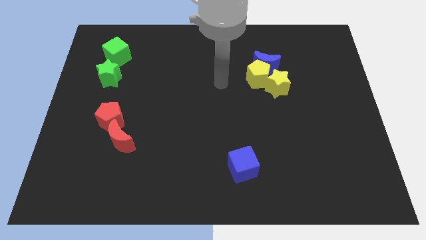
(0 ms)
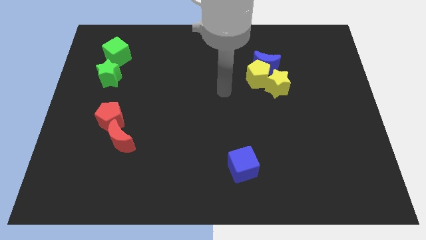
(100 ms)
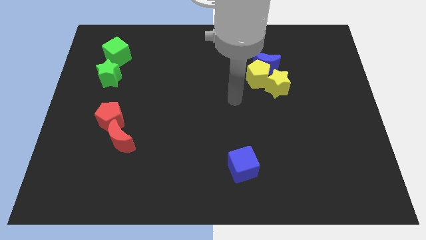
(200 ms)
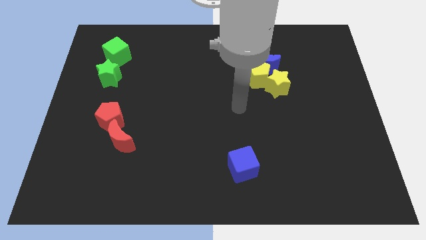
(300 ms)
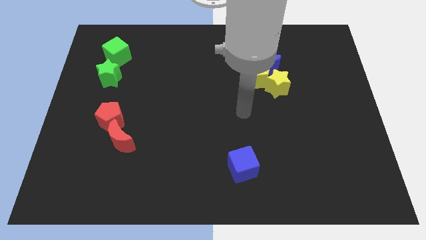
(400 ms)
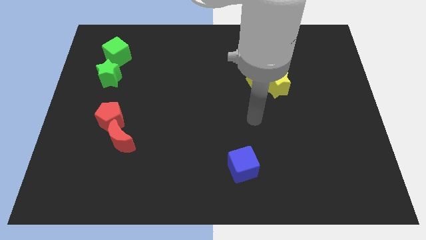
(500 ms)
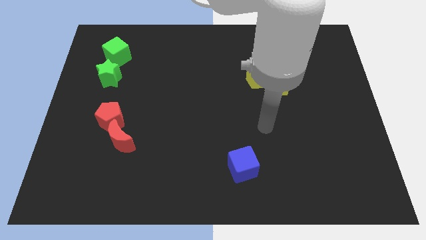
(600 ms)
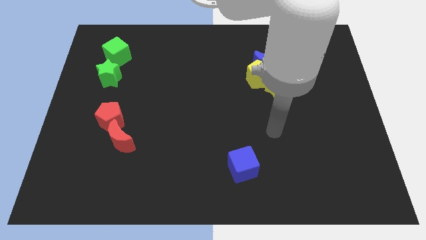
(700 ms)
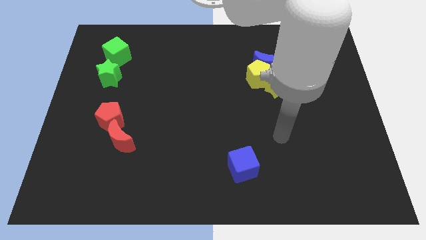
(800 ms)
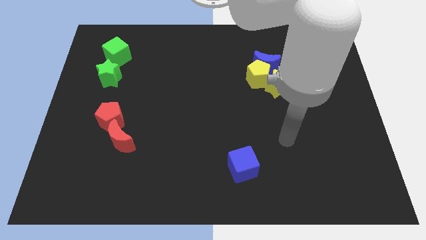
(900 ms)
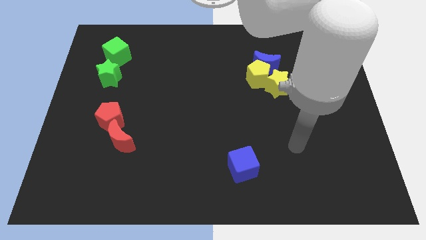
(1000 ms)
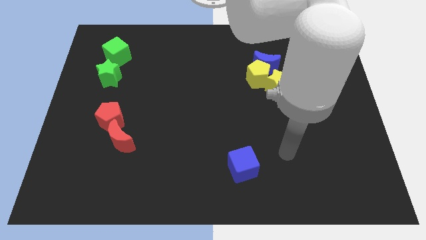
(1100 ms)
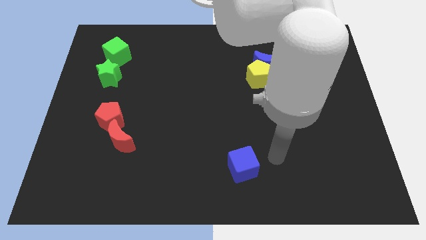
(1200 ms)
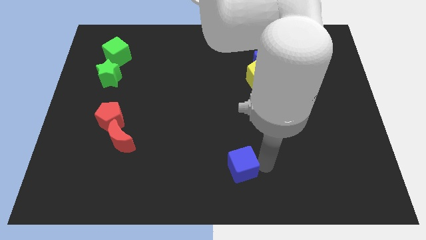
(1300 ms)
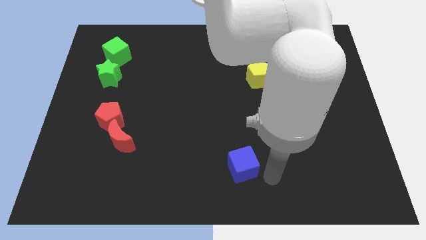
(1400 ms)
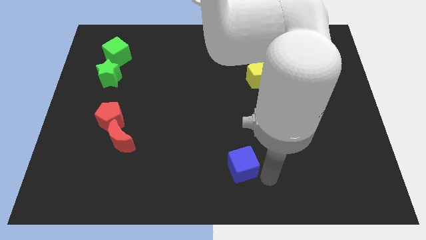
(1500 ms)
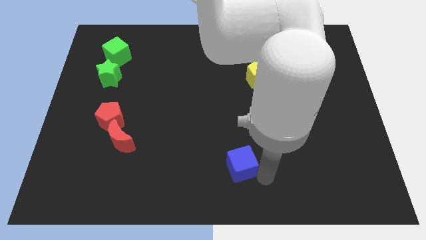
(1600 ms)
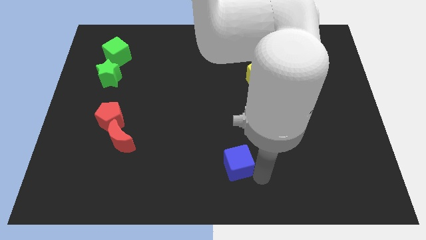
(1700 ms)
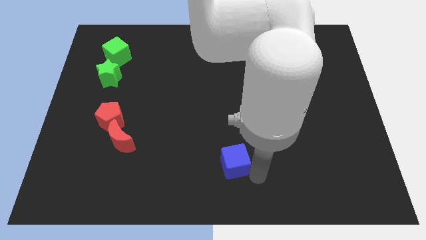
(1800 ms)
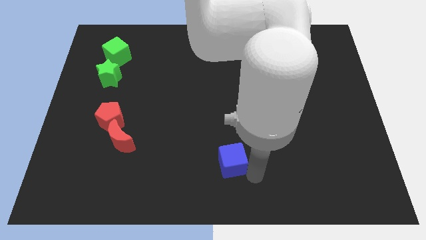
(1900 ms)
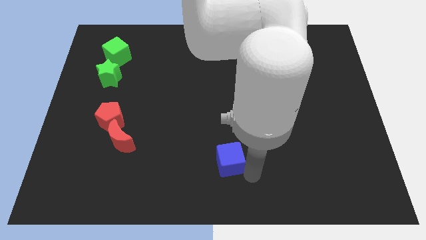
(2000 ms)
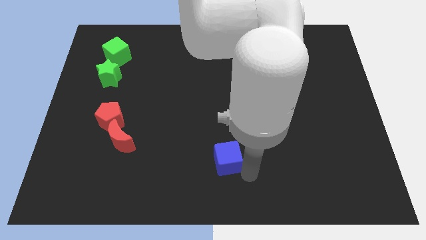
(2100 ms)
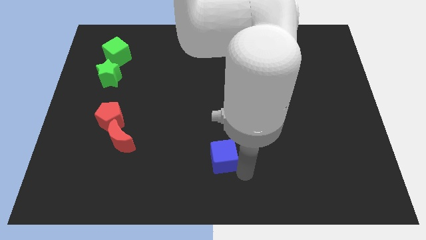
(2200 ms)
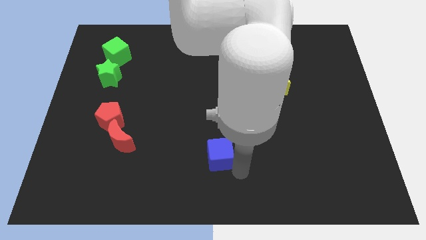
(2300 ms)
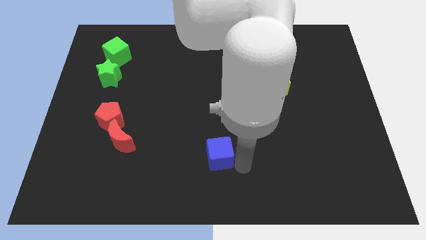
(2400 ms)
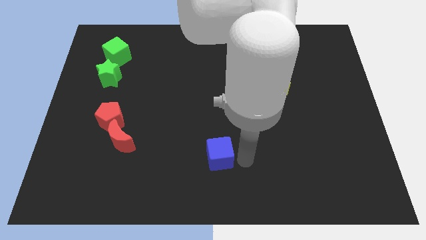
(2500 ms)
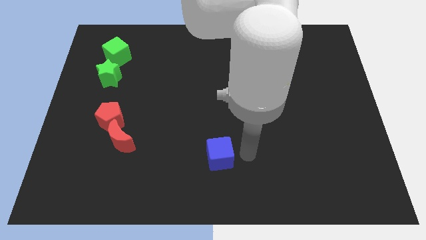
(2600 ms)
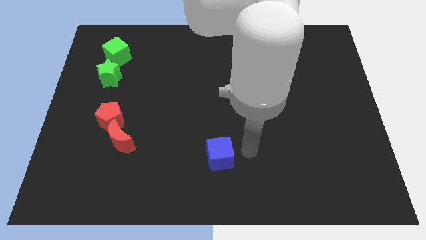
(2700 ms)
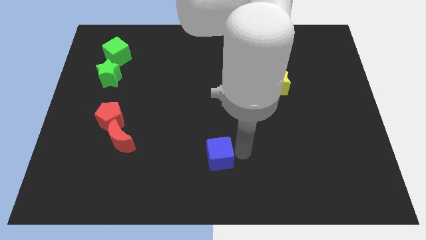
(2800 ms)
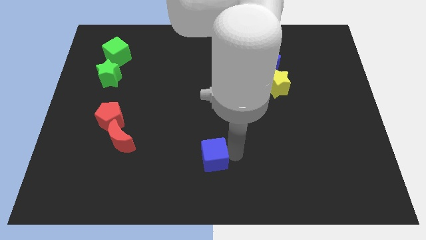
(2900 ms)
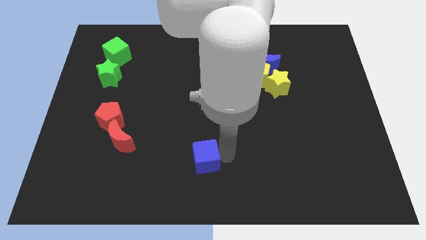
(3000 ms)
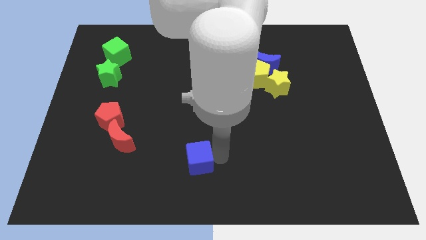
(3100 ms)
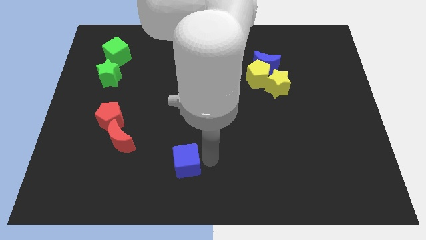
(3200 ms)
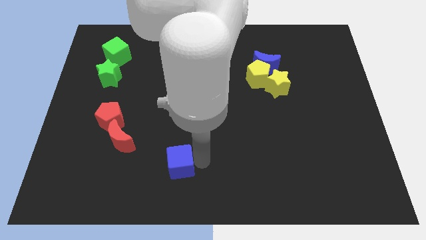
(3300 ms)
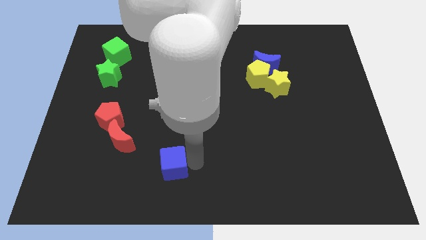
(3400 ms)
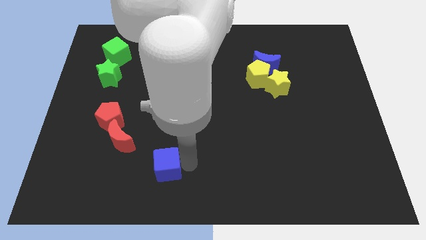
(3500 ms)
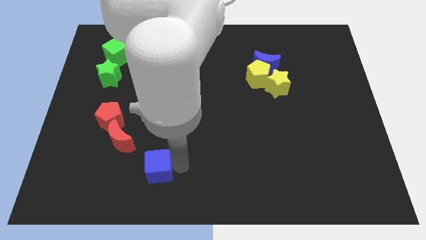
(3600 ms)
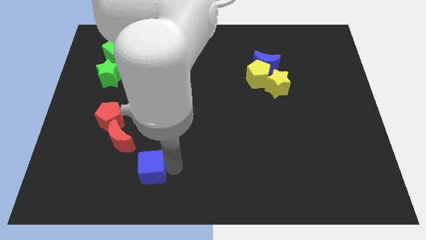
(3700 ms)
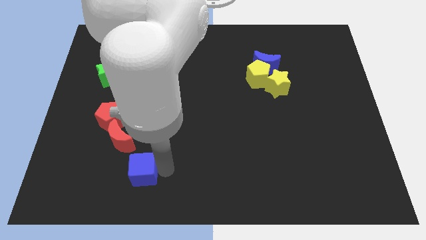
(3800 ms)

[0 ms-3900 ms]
push the blue cube to the left

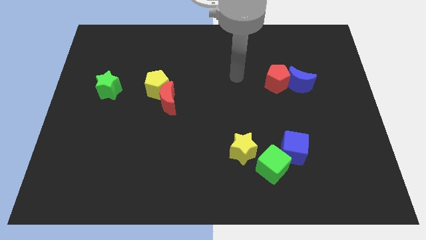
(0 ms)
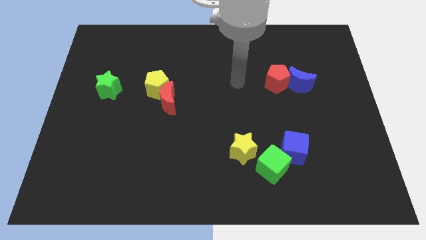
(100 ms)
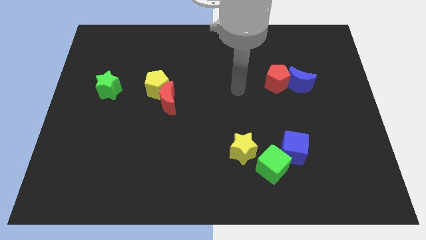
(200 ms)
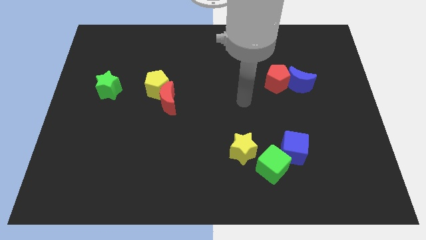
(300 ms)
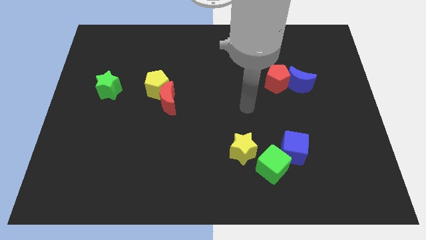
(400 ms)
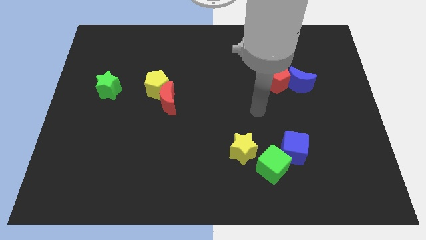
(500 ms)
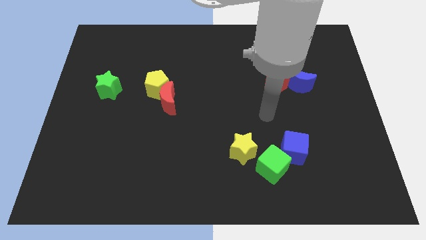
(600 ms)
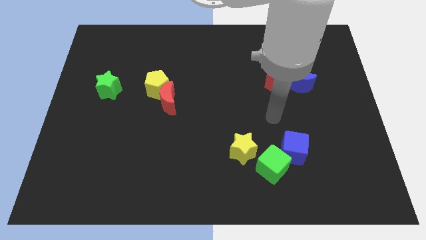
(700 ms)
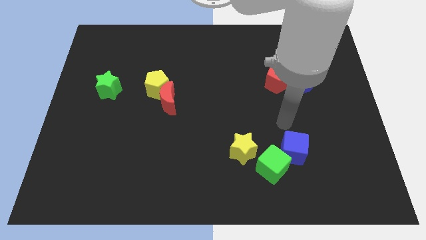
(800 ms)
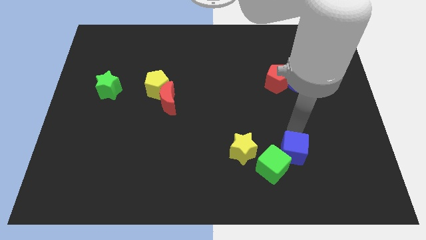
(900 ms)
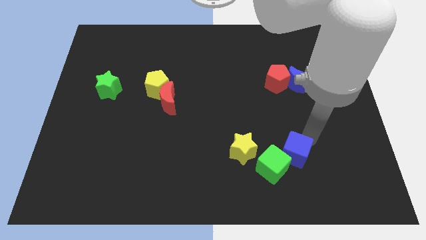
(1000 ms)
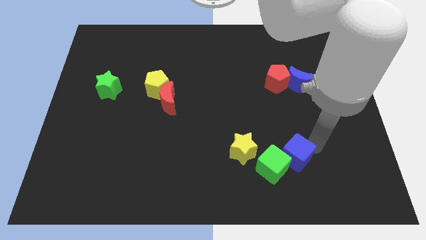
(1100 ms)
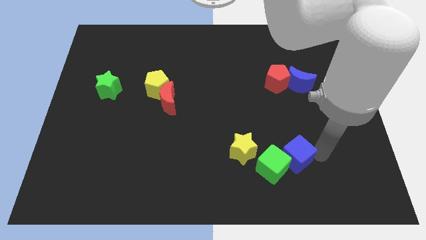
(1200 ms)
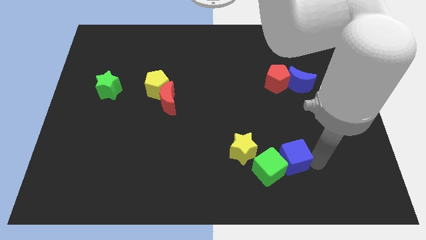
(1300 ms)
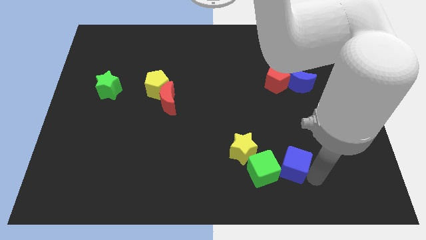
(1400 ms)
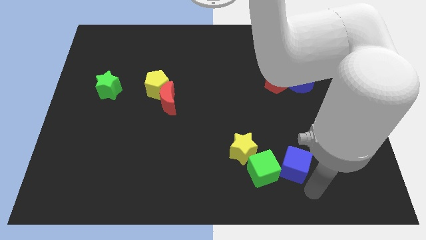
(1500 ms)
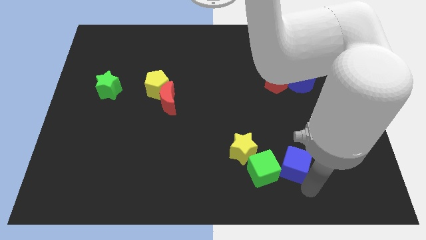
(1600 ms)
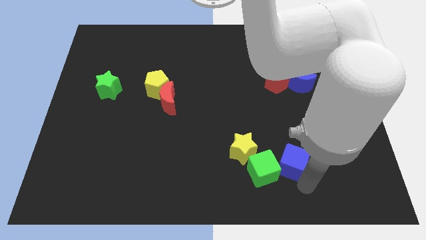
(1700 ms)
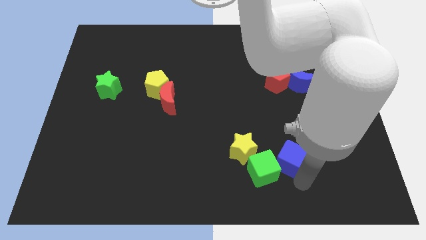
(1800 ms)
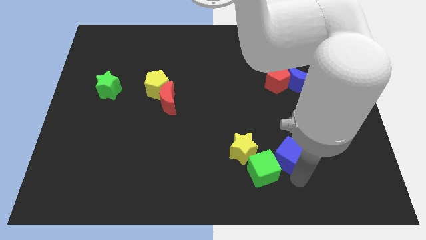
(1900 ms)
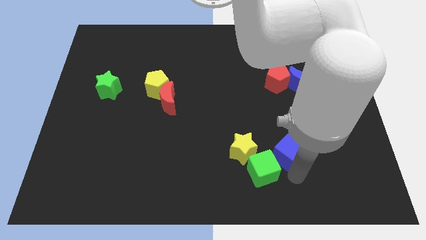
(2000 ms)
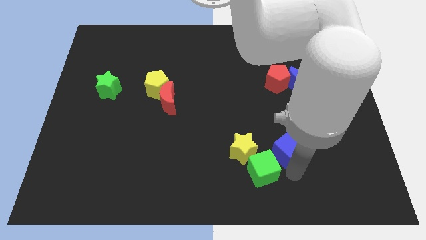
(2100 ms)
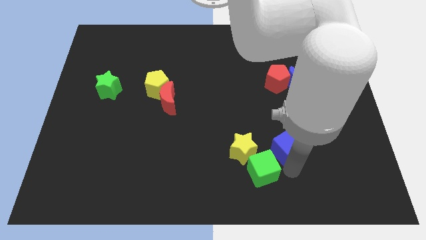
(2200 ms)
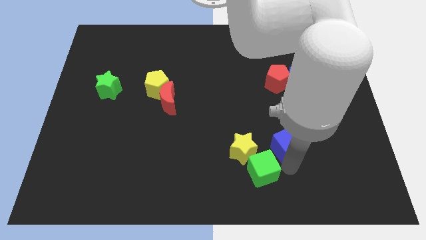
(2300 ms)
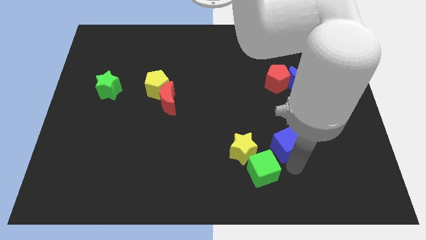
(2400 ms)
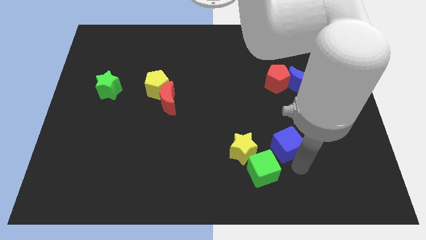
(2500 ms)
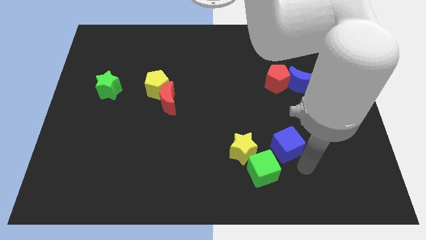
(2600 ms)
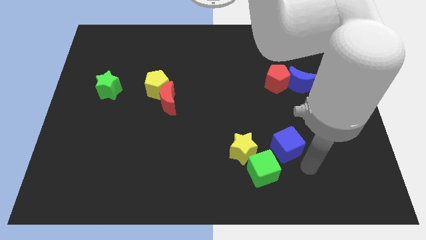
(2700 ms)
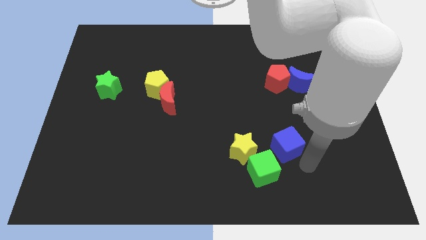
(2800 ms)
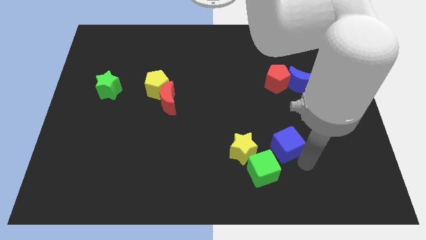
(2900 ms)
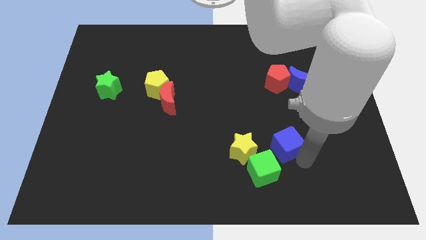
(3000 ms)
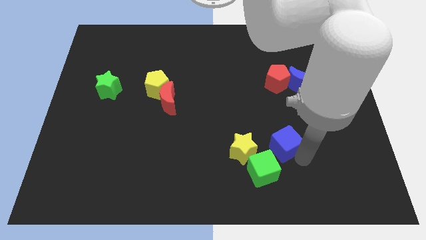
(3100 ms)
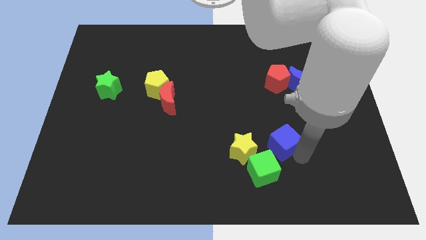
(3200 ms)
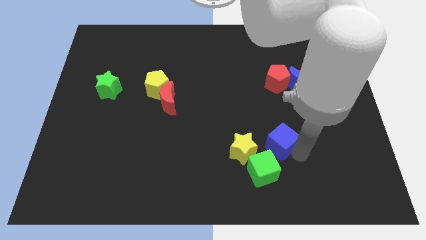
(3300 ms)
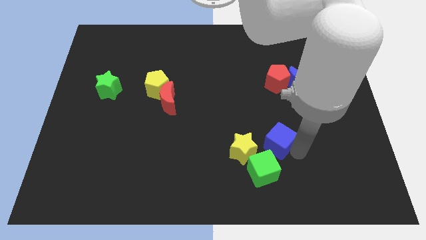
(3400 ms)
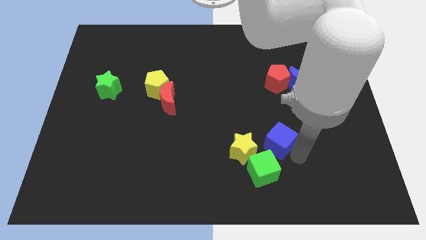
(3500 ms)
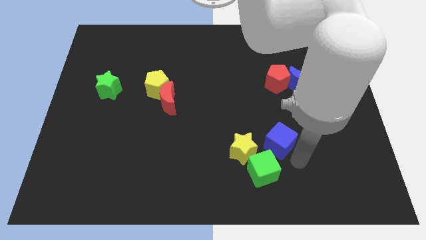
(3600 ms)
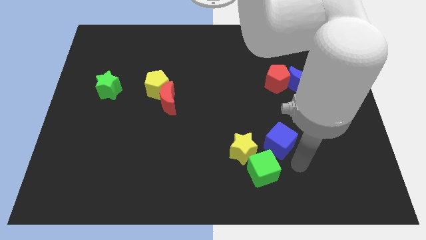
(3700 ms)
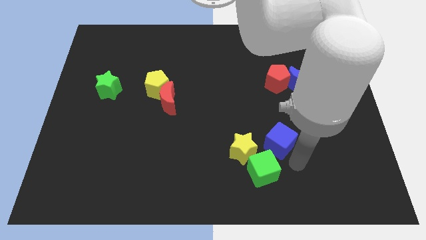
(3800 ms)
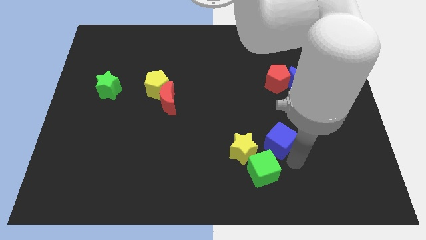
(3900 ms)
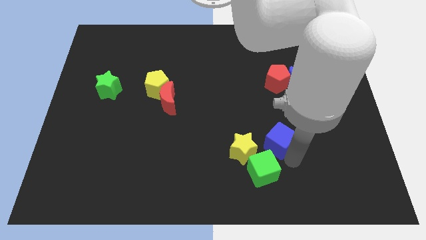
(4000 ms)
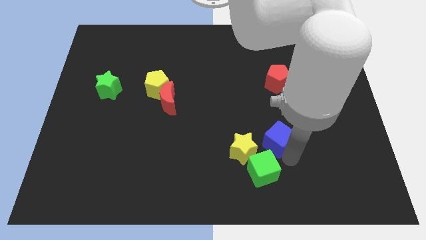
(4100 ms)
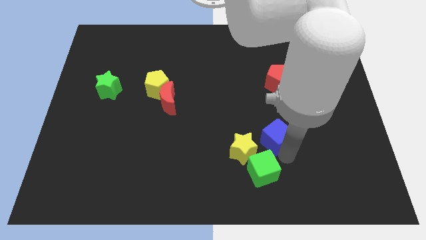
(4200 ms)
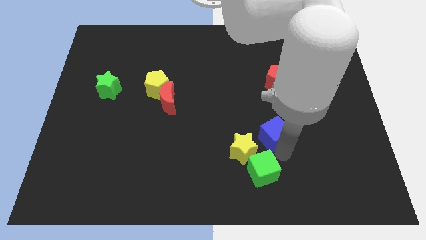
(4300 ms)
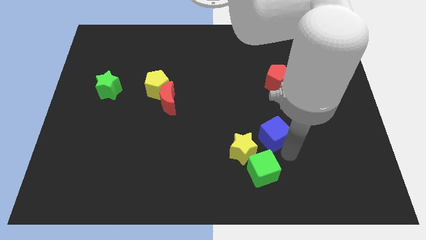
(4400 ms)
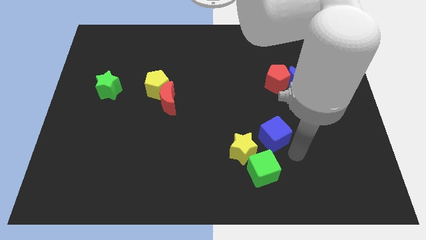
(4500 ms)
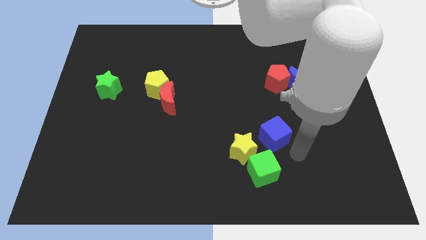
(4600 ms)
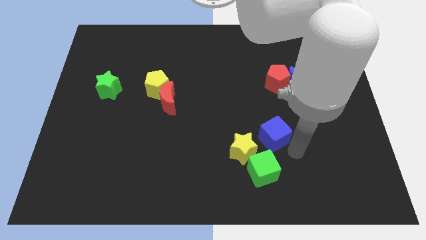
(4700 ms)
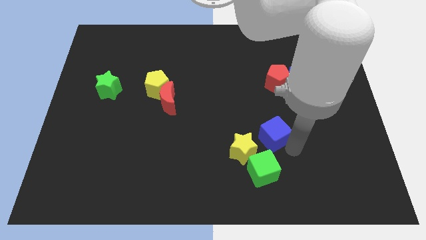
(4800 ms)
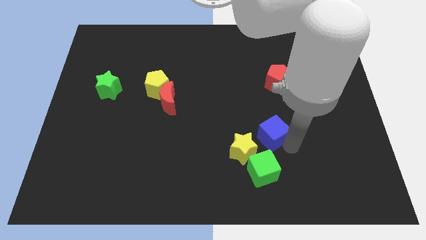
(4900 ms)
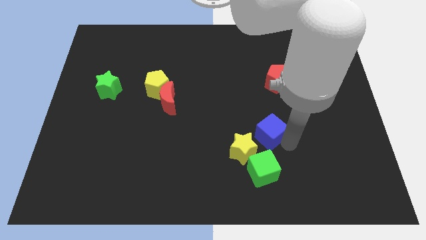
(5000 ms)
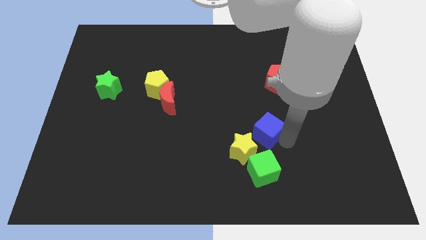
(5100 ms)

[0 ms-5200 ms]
slide the blue cube up and to the left diagonally a little bit
